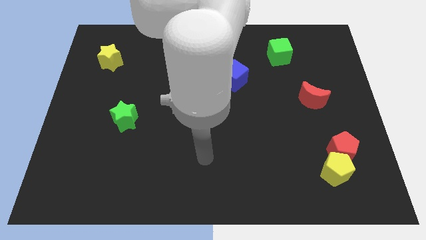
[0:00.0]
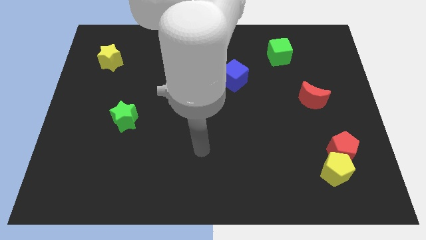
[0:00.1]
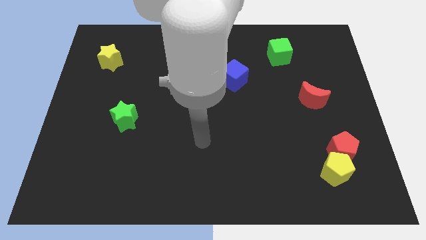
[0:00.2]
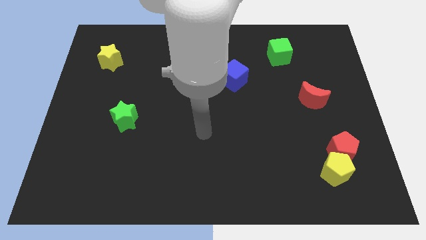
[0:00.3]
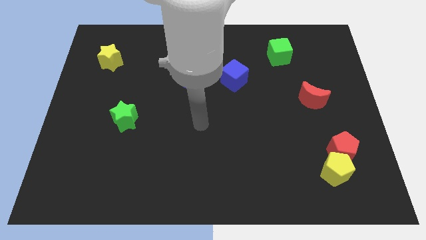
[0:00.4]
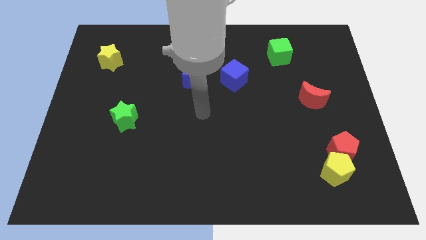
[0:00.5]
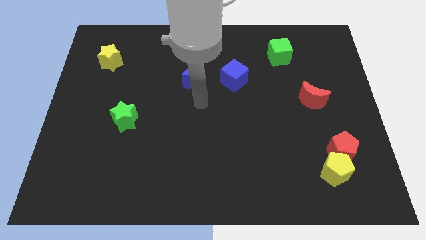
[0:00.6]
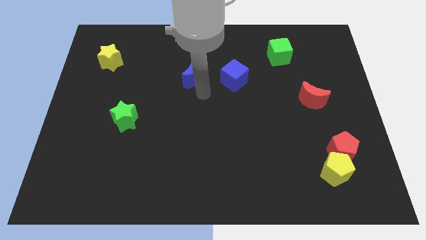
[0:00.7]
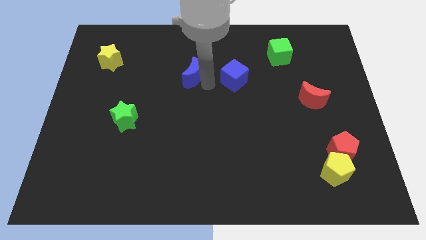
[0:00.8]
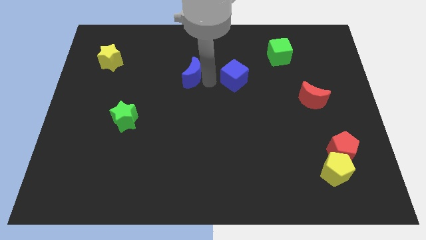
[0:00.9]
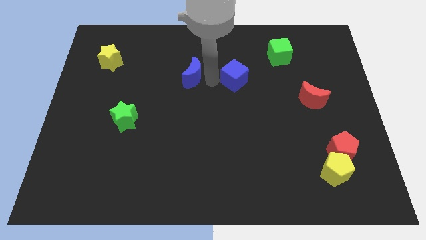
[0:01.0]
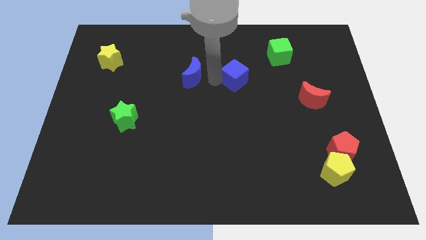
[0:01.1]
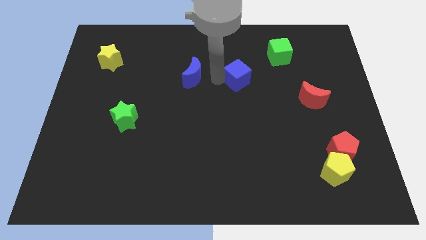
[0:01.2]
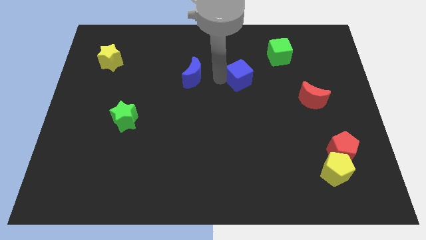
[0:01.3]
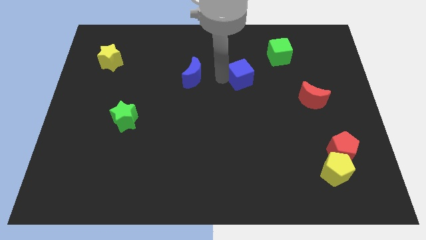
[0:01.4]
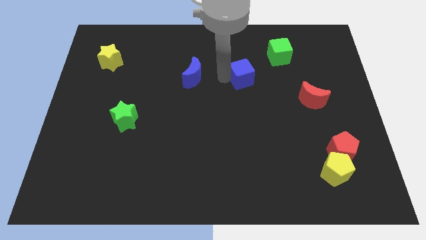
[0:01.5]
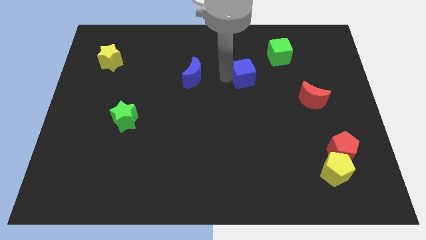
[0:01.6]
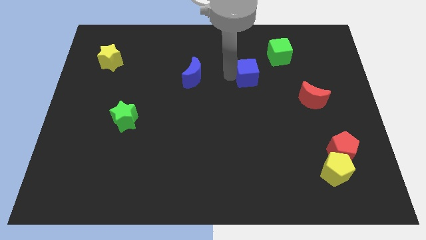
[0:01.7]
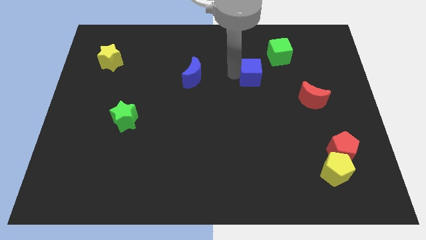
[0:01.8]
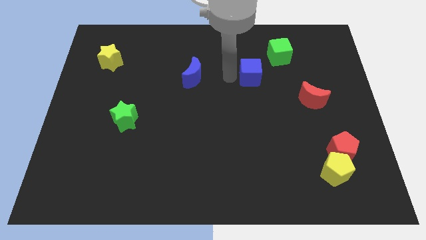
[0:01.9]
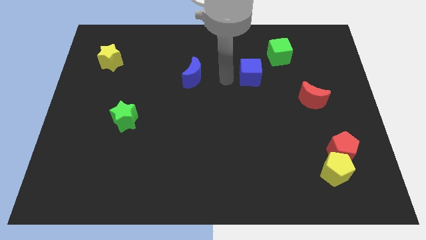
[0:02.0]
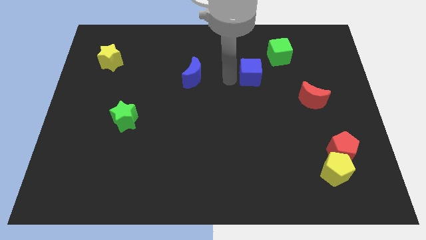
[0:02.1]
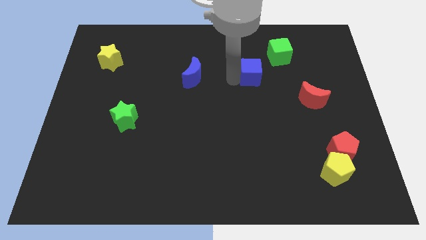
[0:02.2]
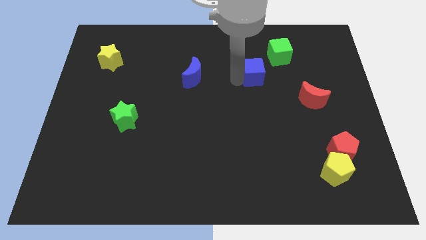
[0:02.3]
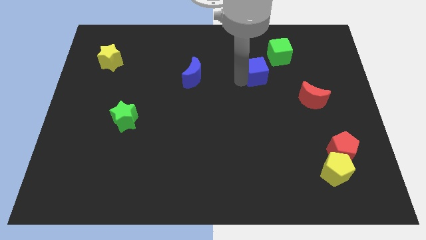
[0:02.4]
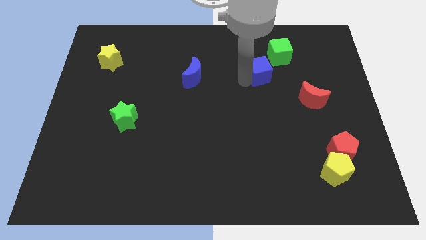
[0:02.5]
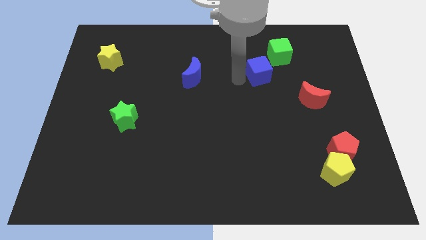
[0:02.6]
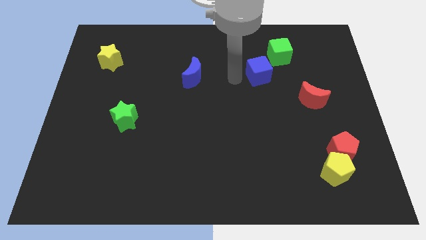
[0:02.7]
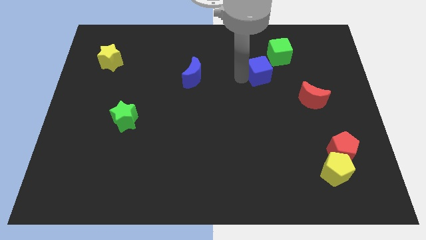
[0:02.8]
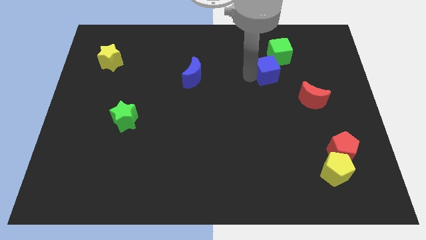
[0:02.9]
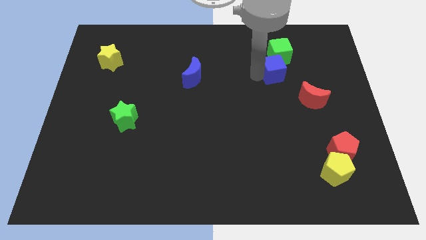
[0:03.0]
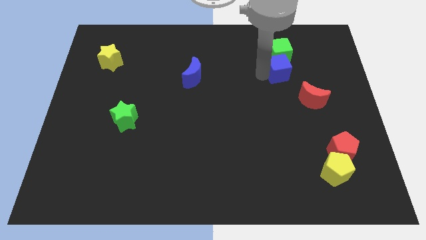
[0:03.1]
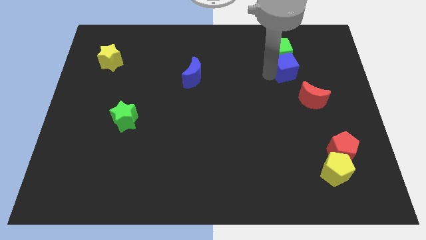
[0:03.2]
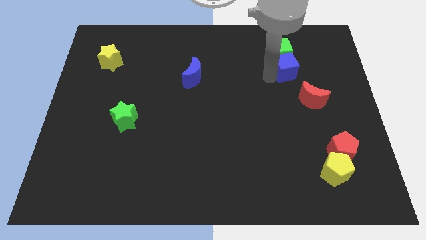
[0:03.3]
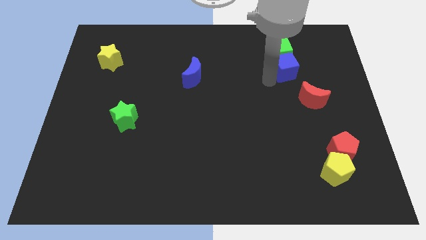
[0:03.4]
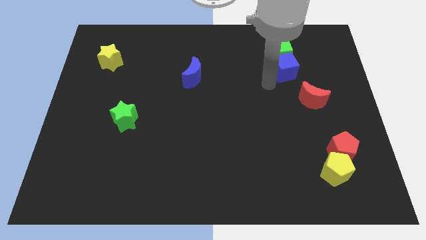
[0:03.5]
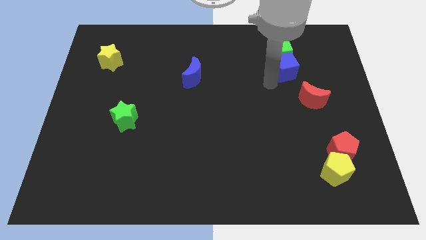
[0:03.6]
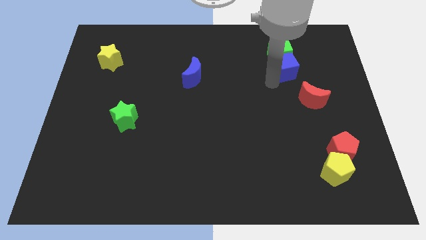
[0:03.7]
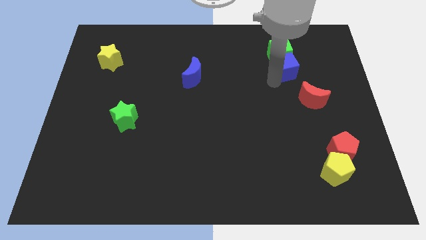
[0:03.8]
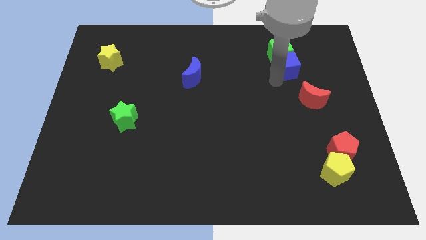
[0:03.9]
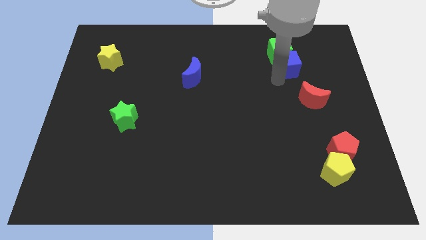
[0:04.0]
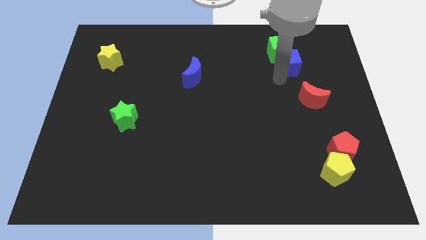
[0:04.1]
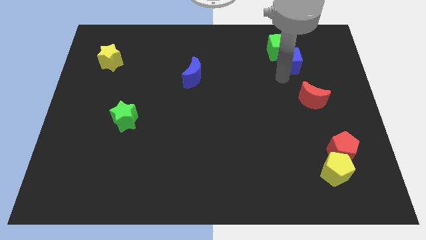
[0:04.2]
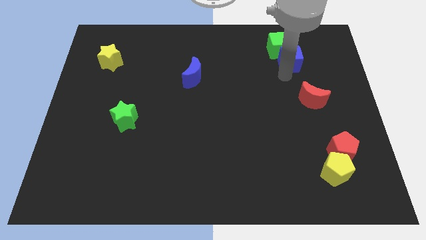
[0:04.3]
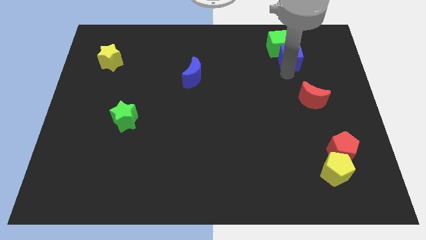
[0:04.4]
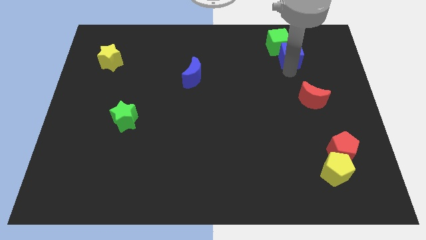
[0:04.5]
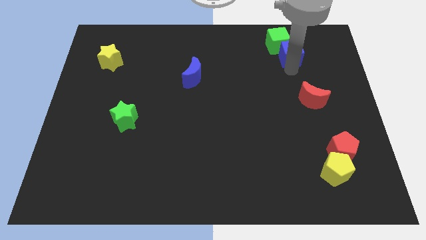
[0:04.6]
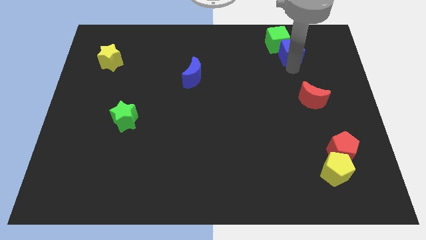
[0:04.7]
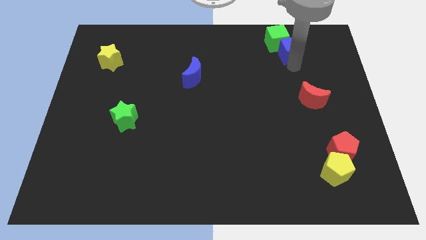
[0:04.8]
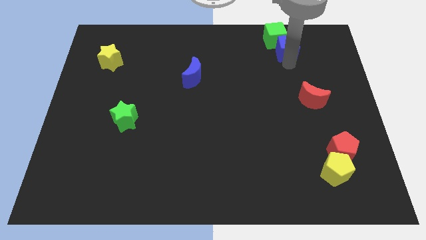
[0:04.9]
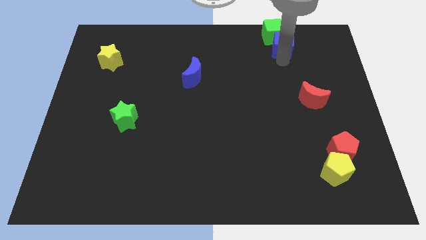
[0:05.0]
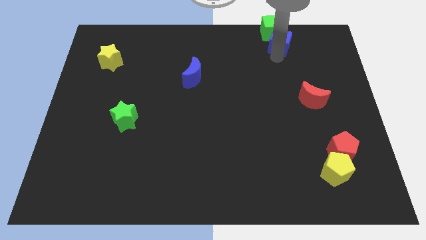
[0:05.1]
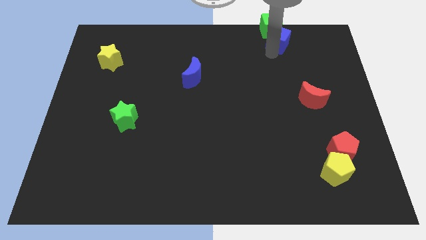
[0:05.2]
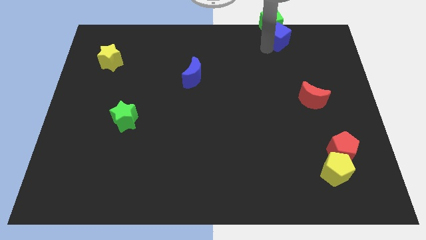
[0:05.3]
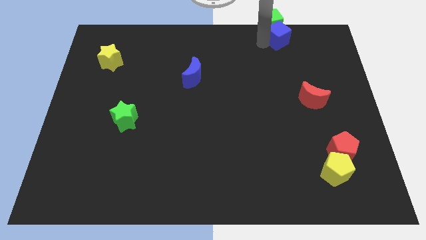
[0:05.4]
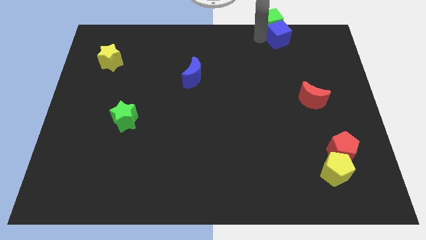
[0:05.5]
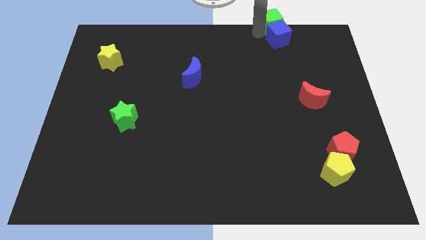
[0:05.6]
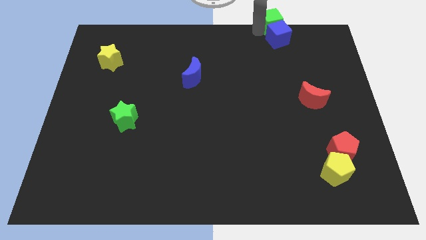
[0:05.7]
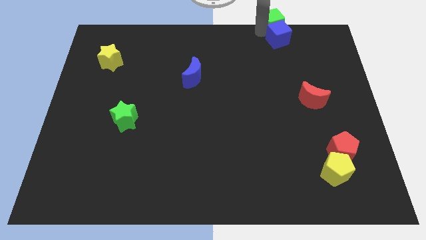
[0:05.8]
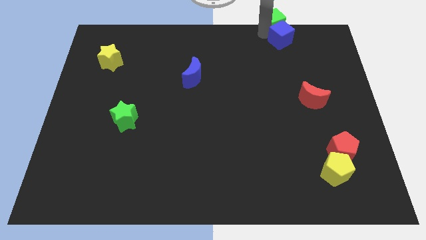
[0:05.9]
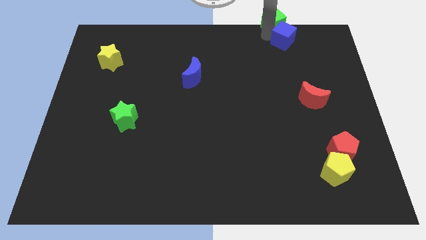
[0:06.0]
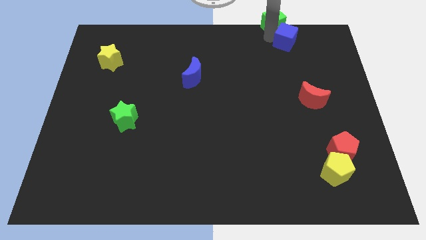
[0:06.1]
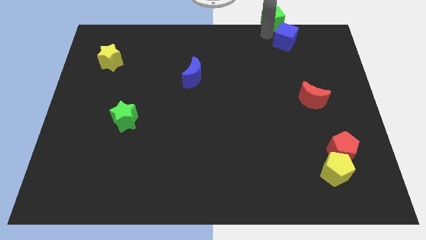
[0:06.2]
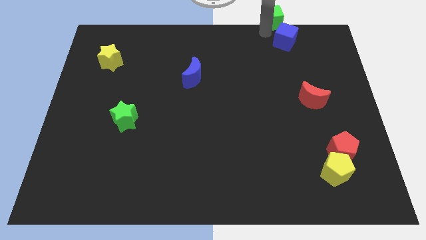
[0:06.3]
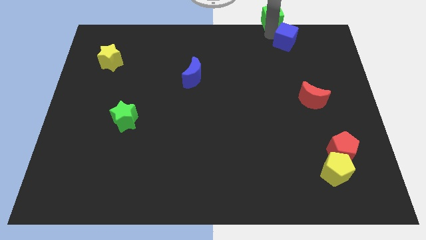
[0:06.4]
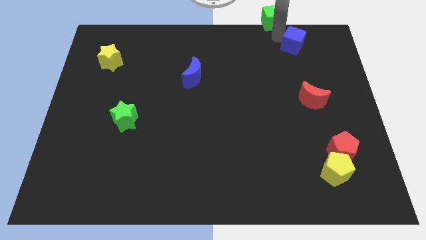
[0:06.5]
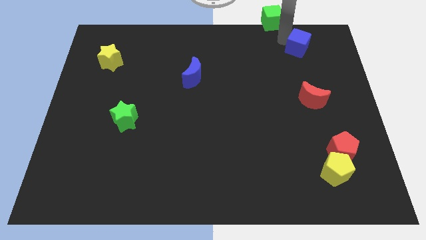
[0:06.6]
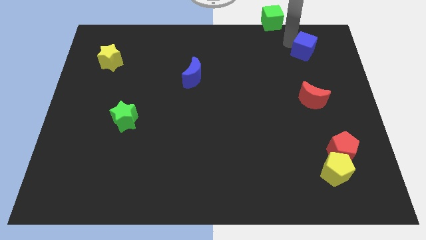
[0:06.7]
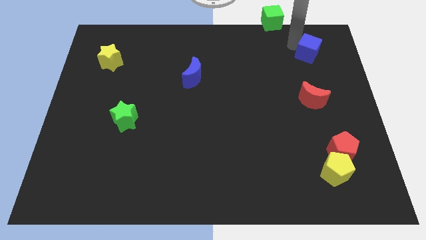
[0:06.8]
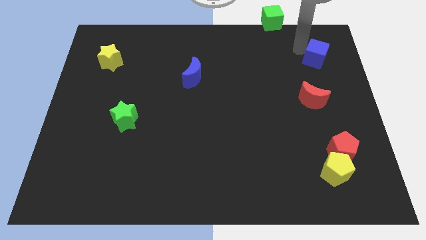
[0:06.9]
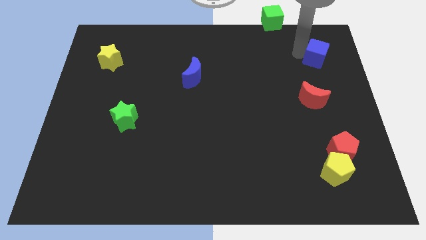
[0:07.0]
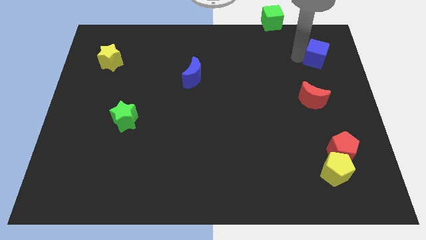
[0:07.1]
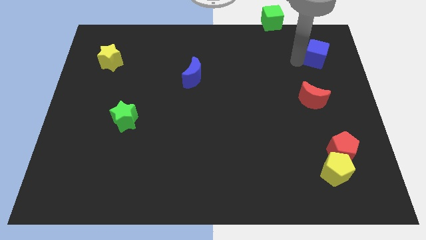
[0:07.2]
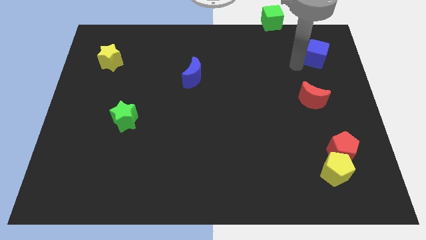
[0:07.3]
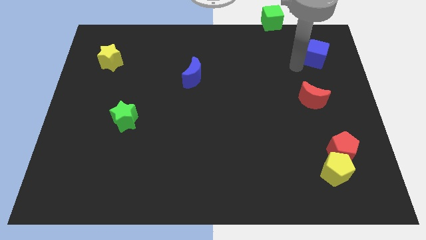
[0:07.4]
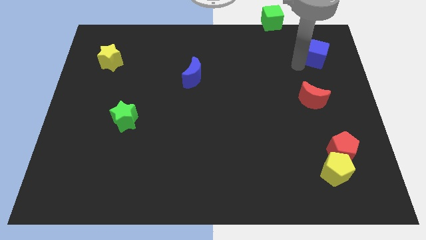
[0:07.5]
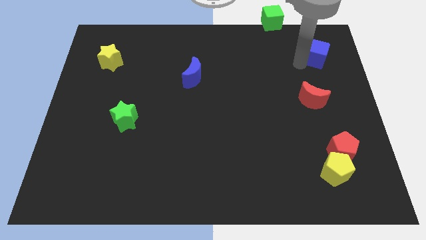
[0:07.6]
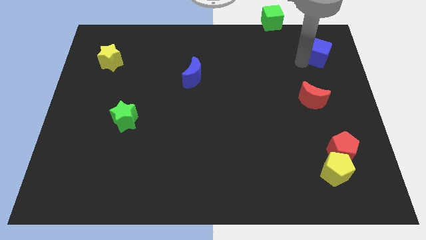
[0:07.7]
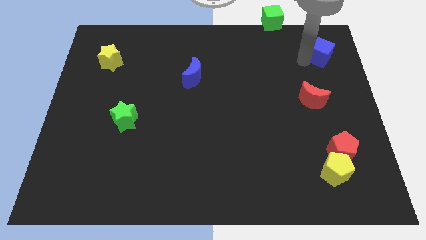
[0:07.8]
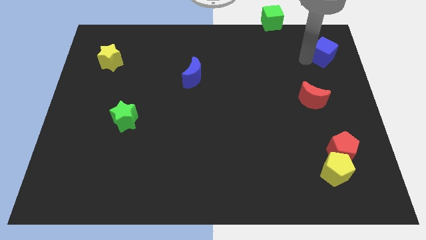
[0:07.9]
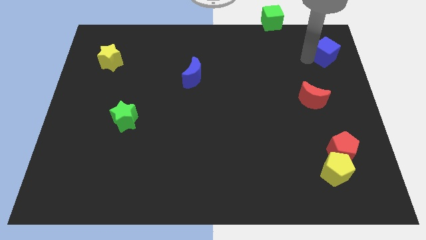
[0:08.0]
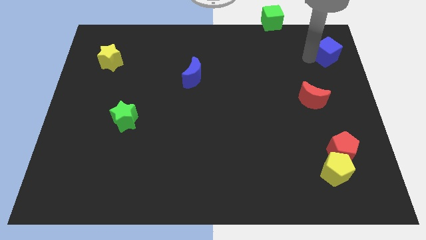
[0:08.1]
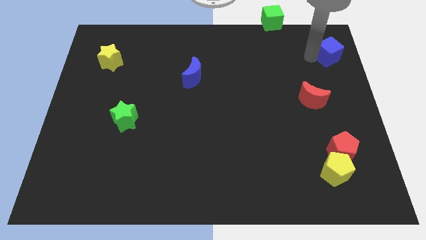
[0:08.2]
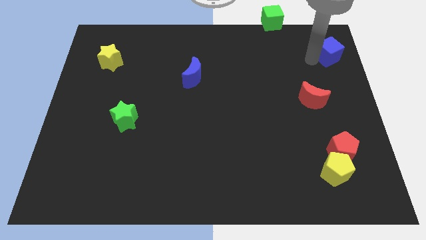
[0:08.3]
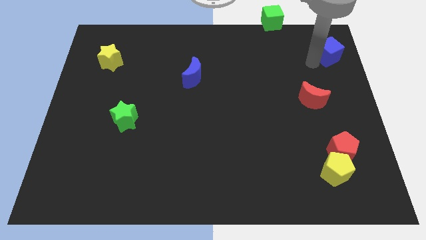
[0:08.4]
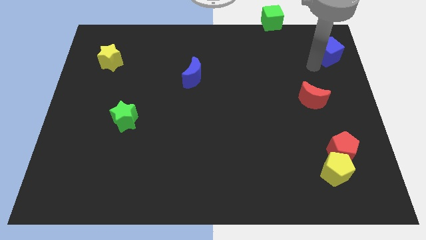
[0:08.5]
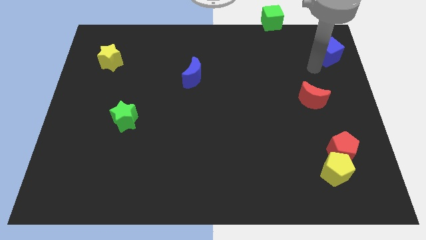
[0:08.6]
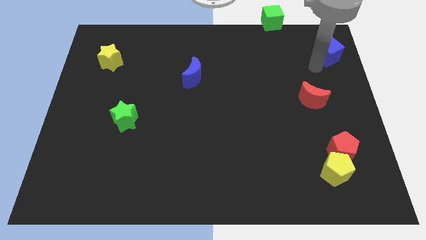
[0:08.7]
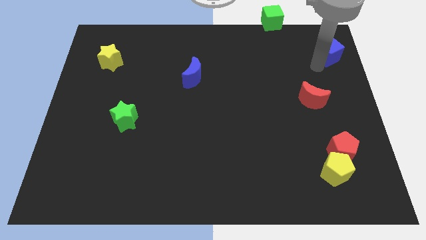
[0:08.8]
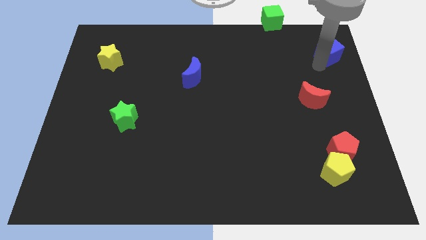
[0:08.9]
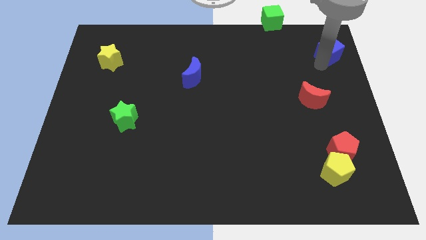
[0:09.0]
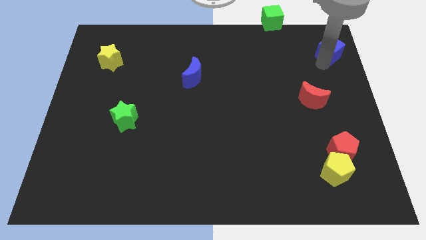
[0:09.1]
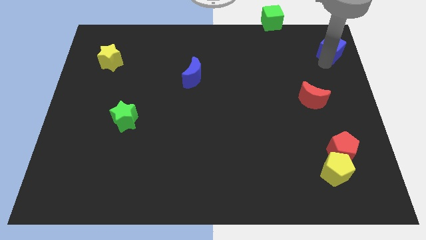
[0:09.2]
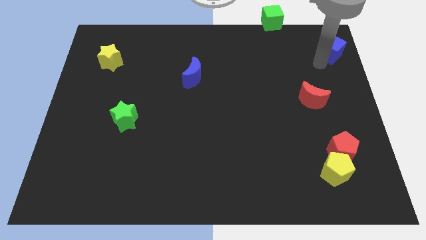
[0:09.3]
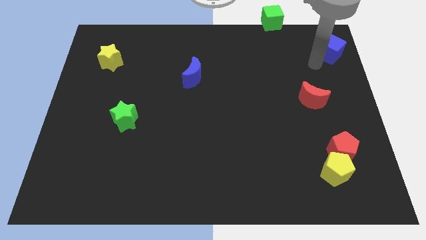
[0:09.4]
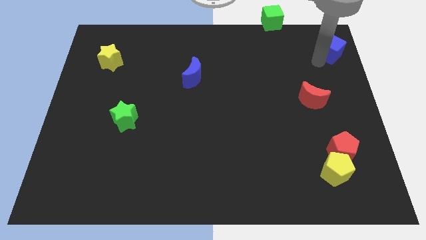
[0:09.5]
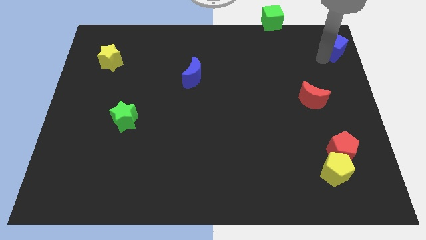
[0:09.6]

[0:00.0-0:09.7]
slide the blue cube to the top right of the board
